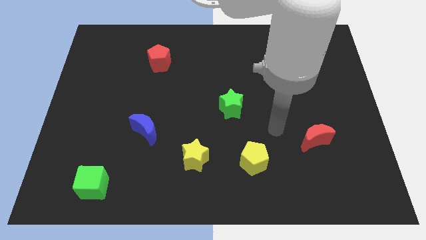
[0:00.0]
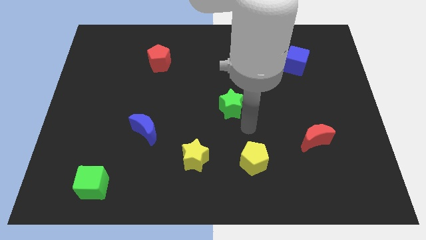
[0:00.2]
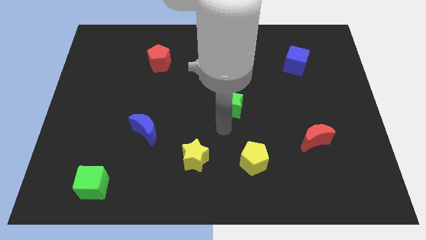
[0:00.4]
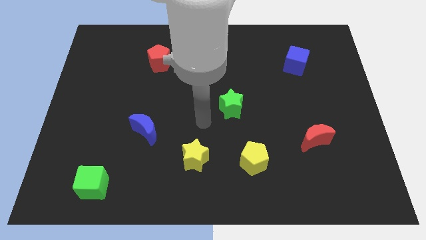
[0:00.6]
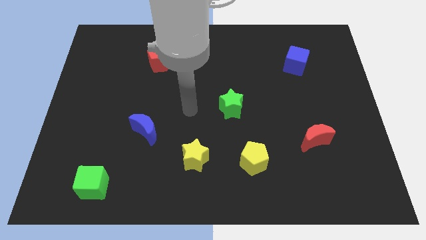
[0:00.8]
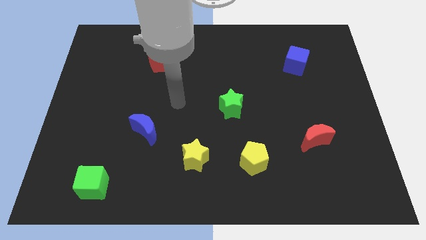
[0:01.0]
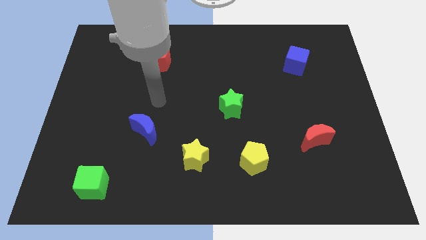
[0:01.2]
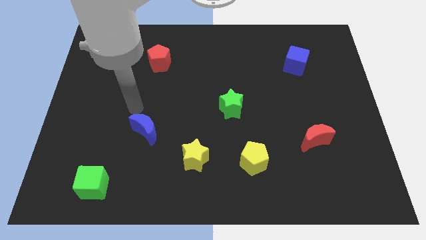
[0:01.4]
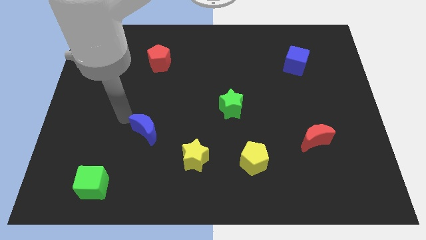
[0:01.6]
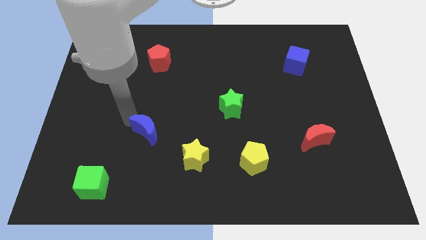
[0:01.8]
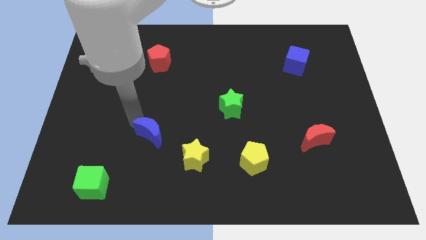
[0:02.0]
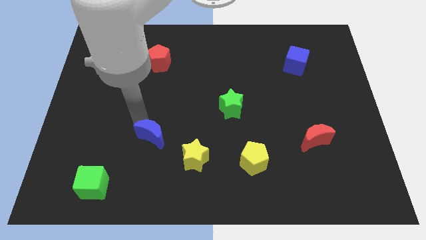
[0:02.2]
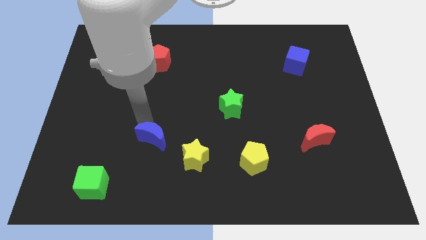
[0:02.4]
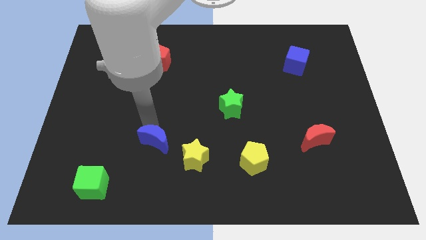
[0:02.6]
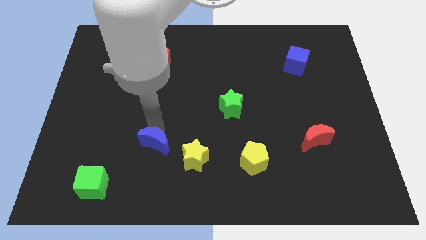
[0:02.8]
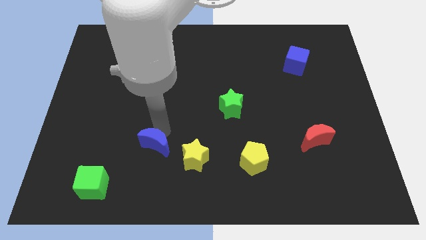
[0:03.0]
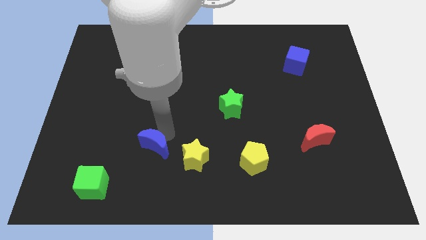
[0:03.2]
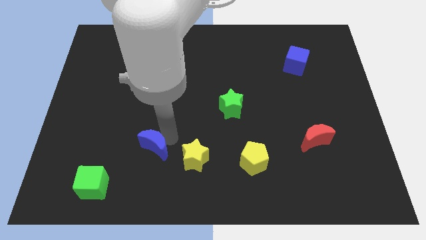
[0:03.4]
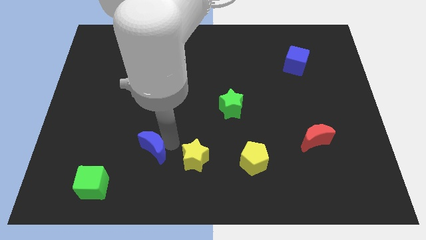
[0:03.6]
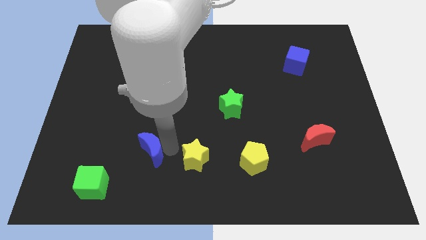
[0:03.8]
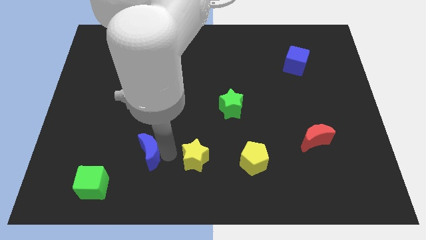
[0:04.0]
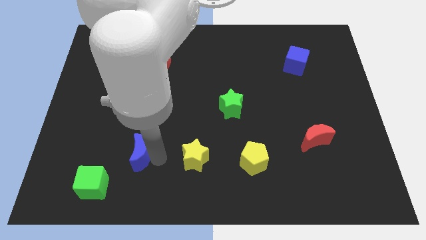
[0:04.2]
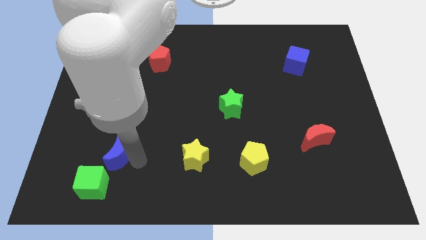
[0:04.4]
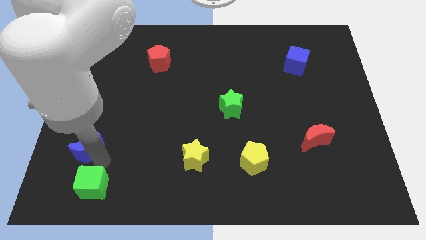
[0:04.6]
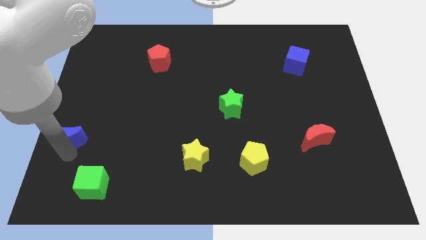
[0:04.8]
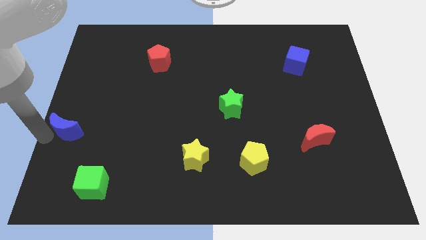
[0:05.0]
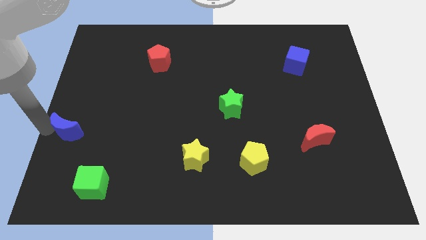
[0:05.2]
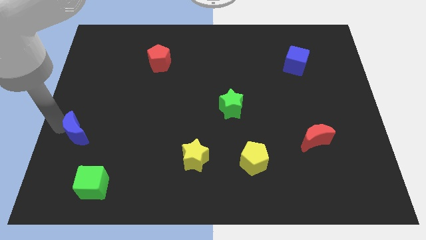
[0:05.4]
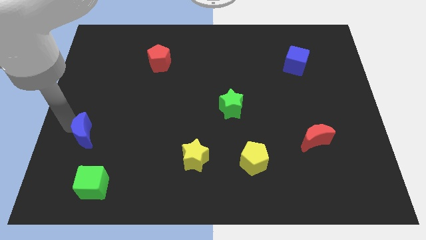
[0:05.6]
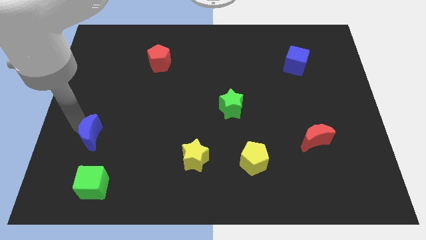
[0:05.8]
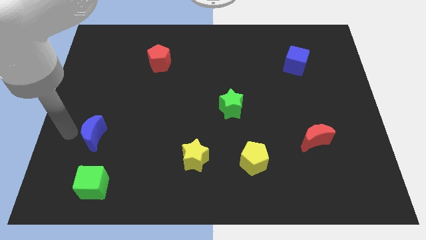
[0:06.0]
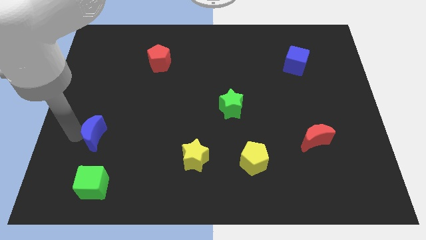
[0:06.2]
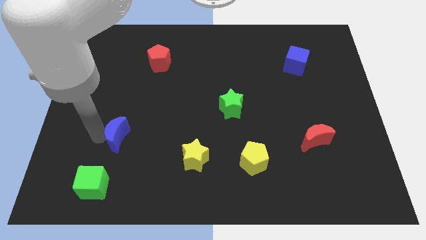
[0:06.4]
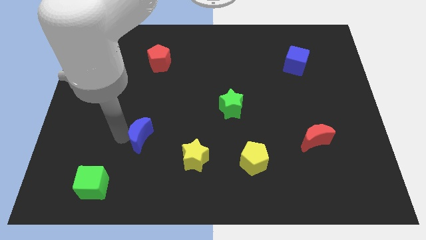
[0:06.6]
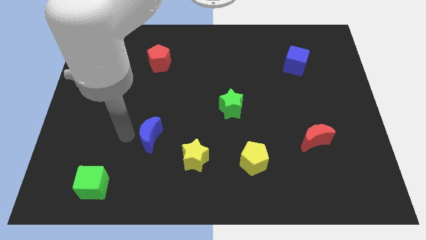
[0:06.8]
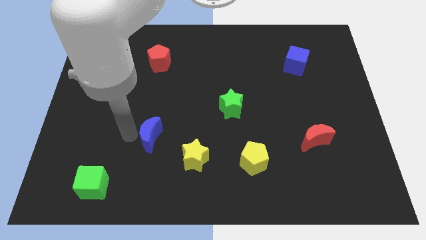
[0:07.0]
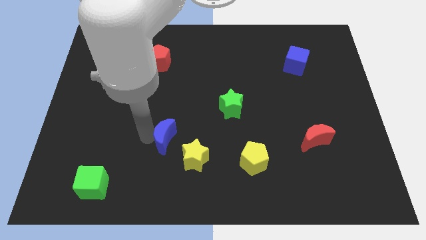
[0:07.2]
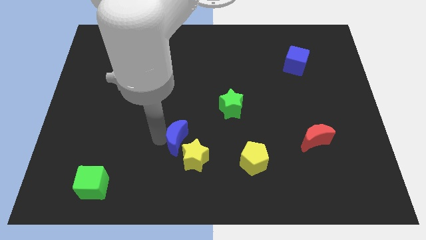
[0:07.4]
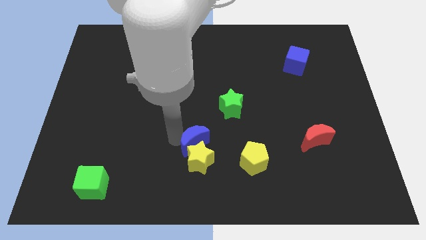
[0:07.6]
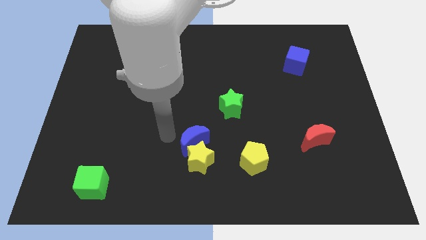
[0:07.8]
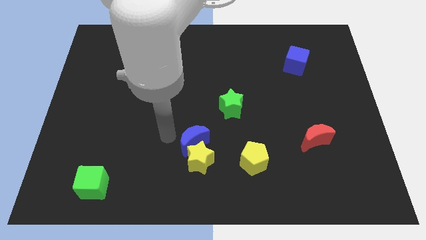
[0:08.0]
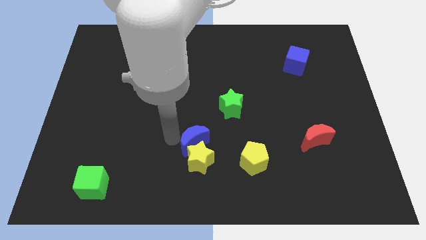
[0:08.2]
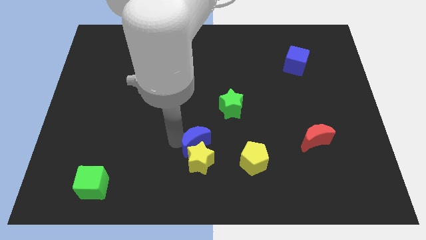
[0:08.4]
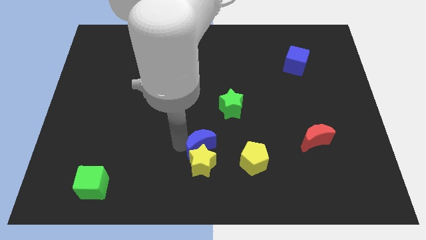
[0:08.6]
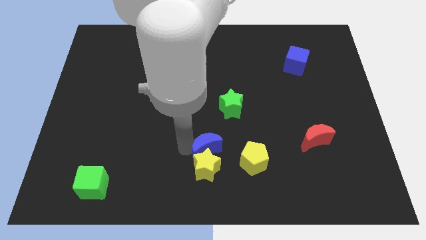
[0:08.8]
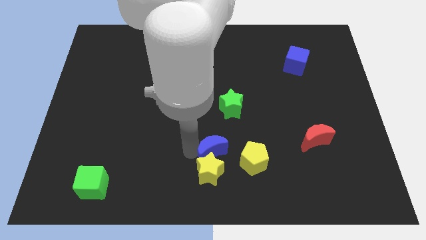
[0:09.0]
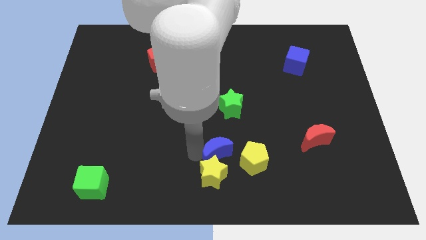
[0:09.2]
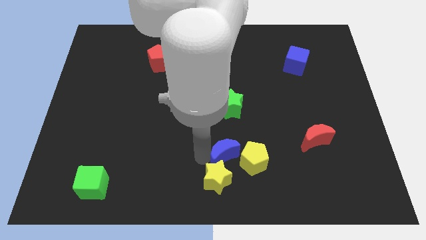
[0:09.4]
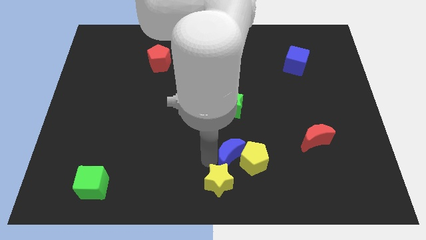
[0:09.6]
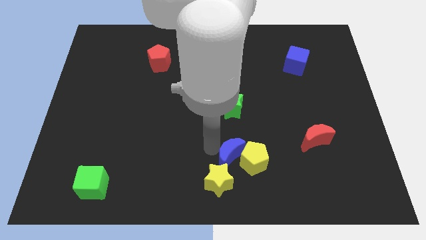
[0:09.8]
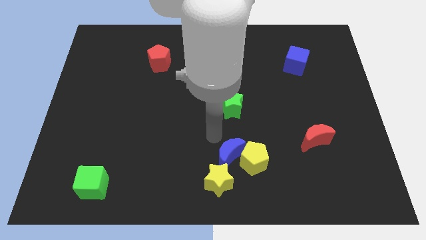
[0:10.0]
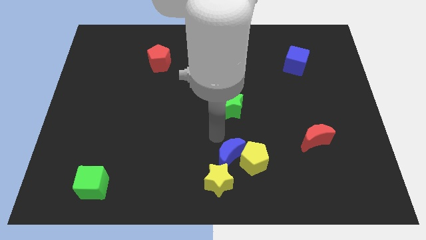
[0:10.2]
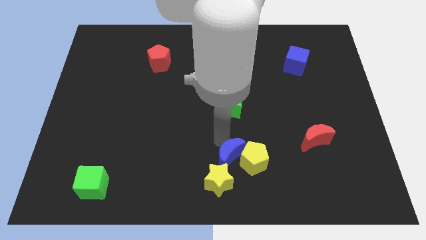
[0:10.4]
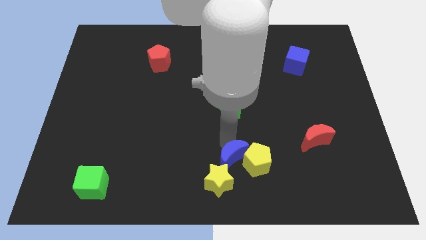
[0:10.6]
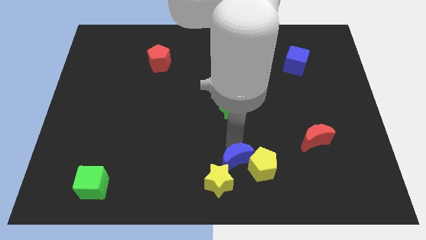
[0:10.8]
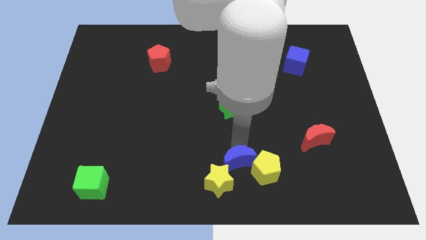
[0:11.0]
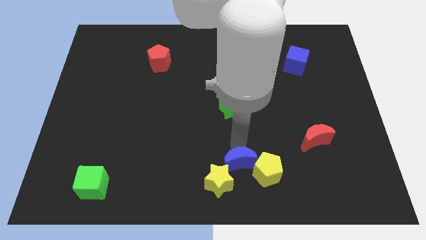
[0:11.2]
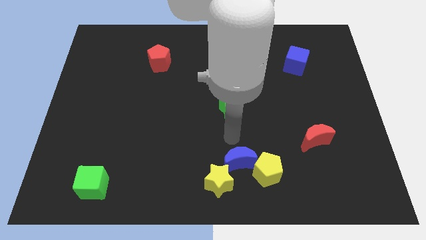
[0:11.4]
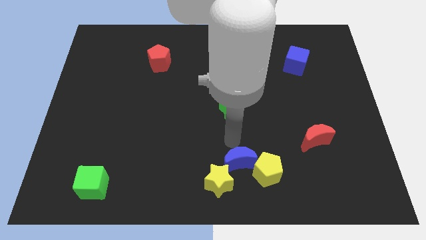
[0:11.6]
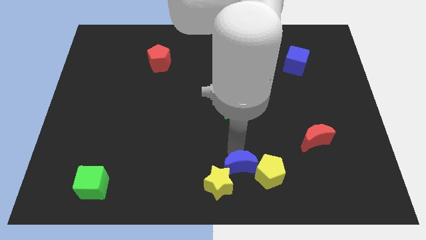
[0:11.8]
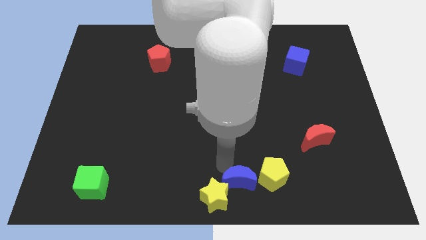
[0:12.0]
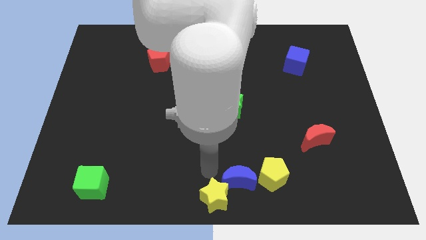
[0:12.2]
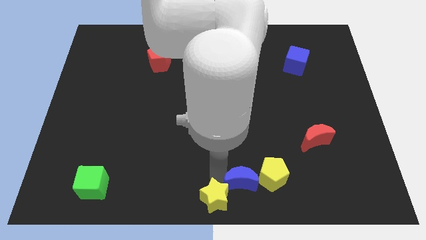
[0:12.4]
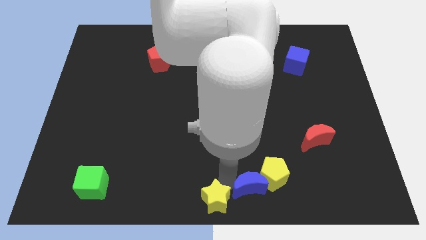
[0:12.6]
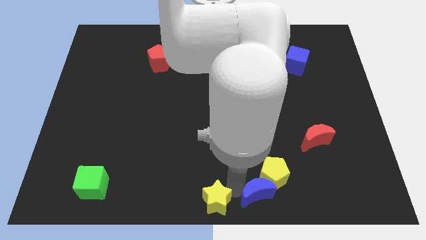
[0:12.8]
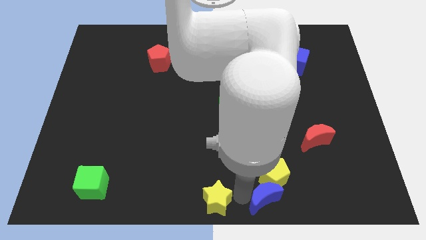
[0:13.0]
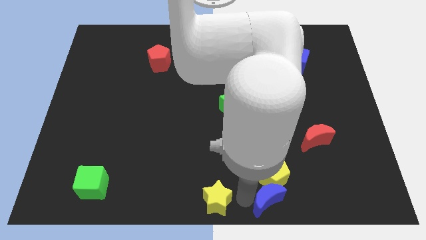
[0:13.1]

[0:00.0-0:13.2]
move the blue moon to the bottom right side of the yellow pentagon

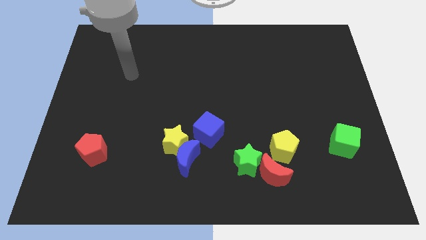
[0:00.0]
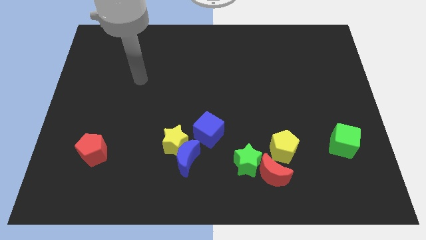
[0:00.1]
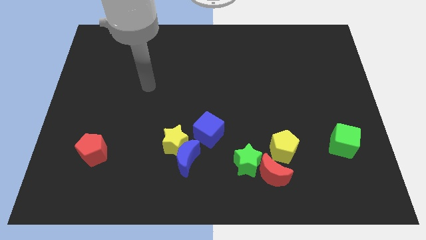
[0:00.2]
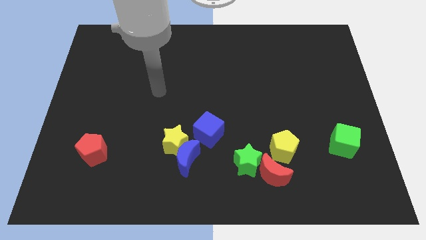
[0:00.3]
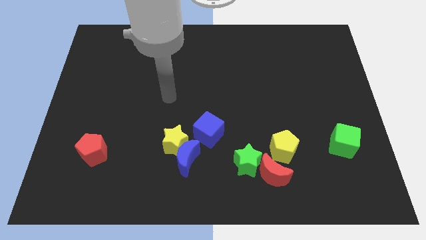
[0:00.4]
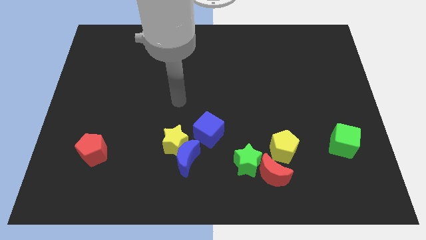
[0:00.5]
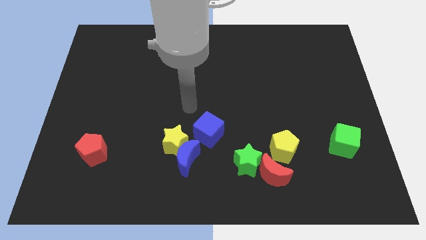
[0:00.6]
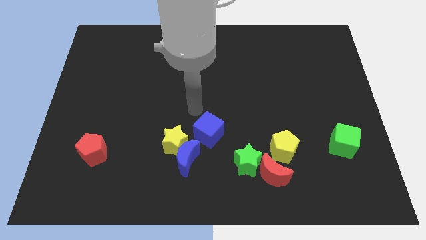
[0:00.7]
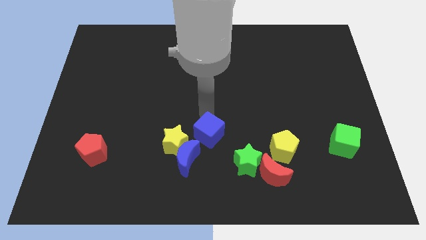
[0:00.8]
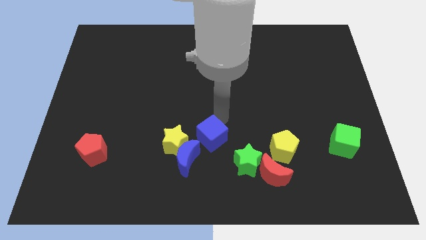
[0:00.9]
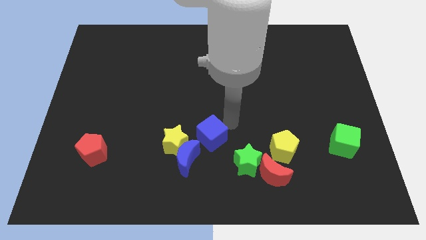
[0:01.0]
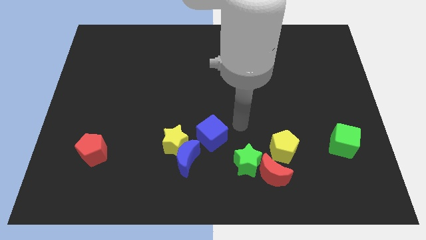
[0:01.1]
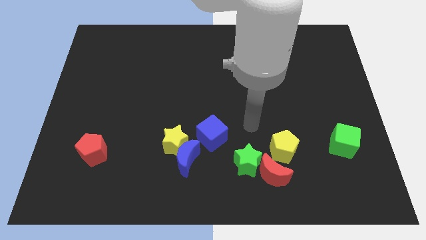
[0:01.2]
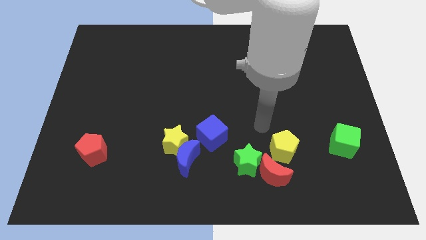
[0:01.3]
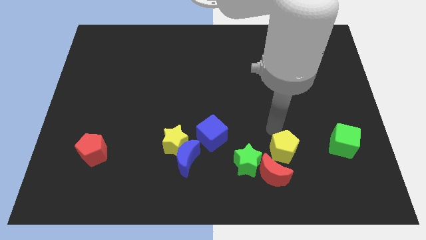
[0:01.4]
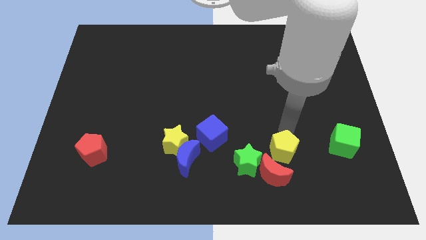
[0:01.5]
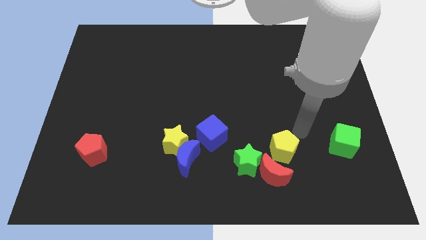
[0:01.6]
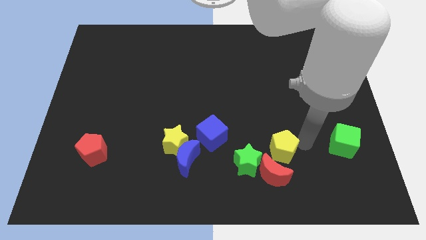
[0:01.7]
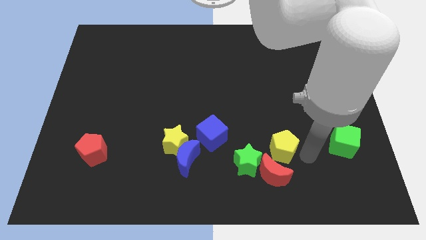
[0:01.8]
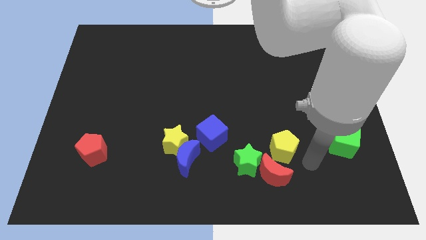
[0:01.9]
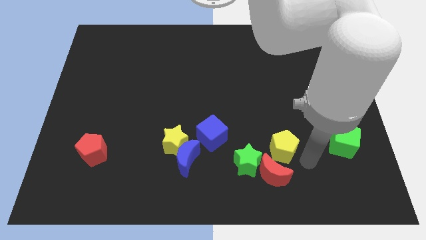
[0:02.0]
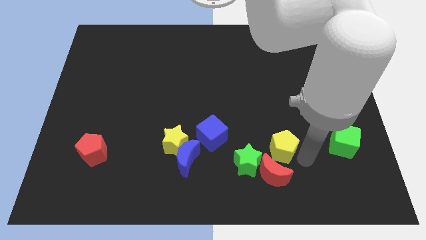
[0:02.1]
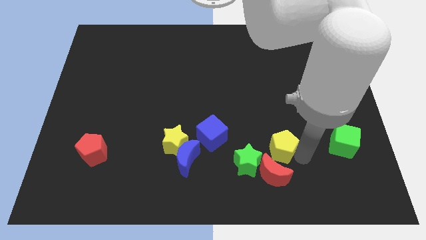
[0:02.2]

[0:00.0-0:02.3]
move the yellow pentagon right of the blue cube
